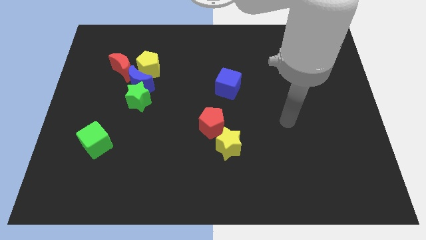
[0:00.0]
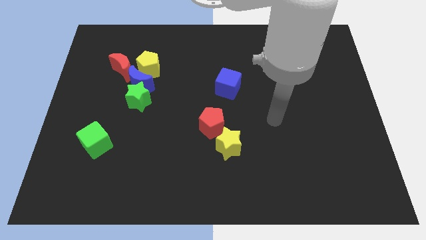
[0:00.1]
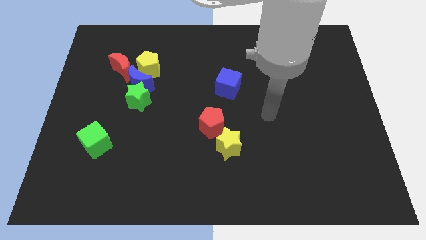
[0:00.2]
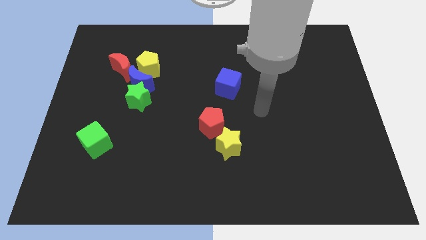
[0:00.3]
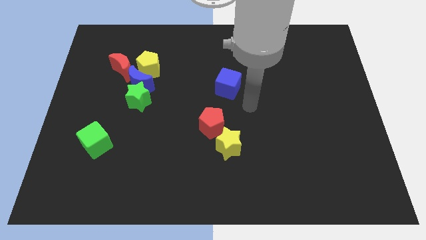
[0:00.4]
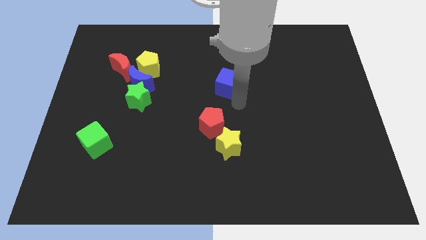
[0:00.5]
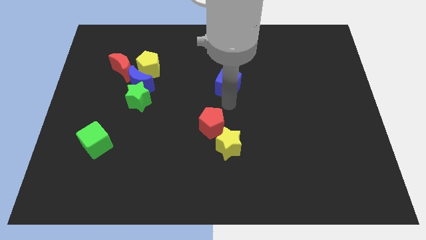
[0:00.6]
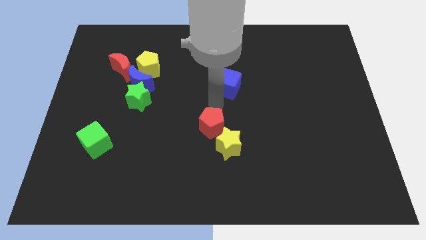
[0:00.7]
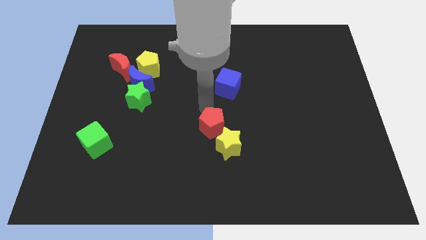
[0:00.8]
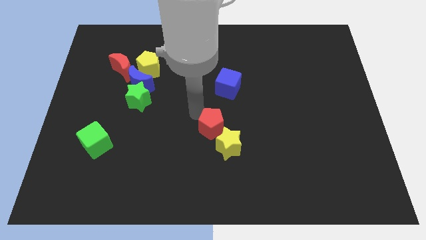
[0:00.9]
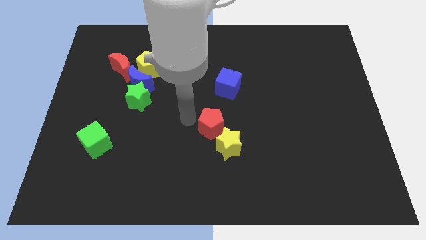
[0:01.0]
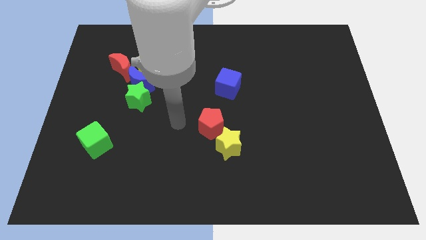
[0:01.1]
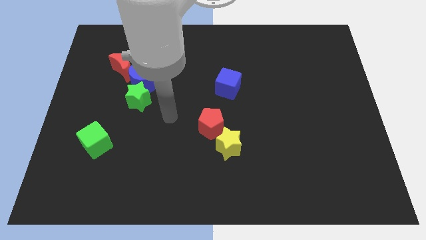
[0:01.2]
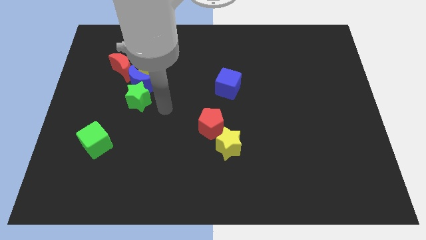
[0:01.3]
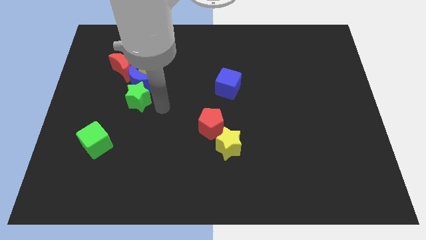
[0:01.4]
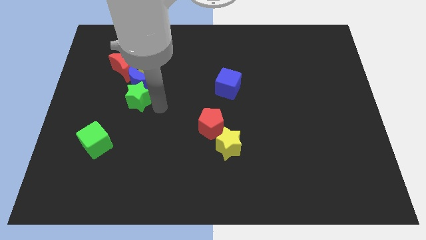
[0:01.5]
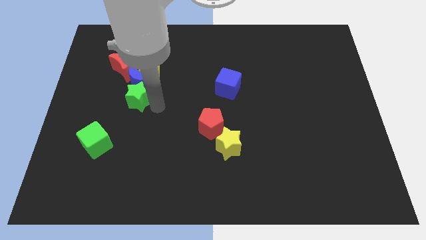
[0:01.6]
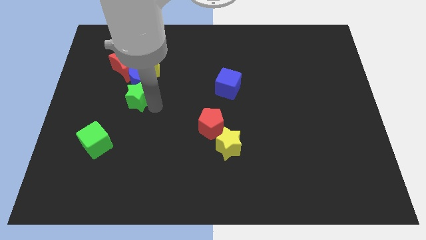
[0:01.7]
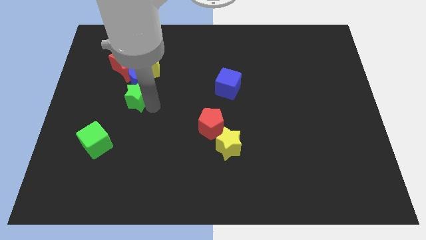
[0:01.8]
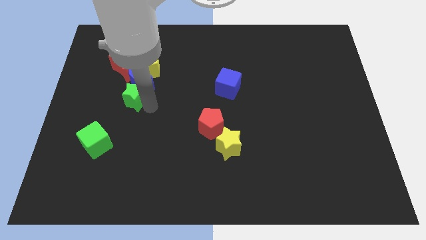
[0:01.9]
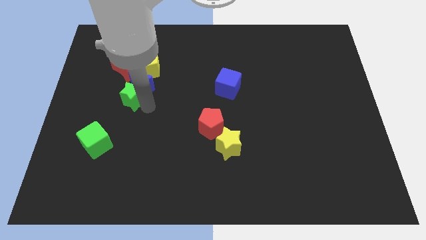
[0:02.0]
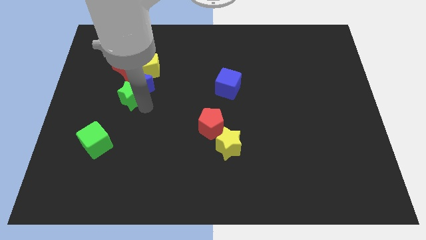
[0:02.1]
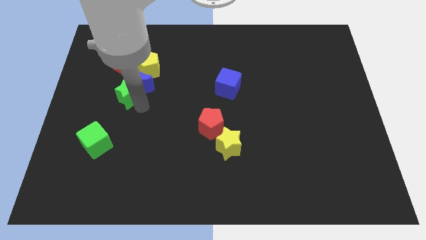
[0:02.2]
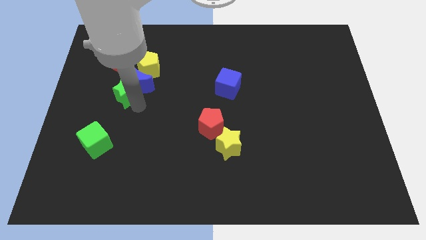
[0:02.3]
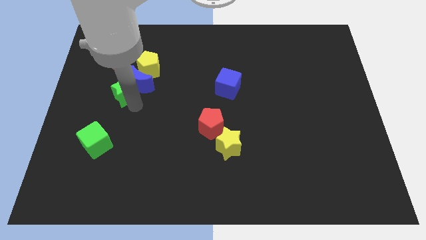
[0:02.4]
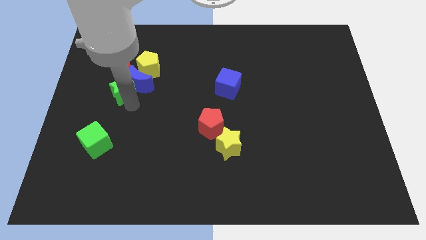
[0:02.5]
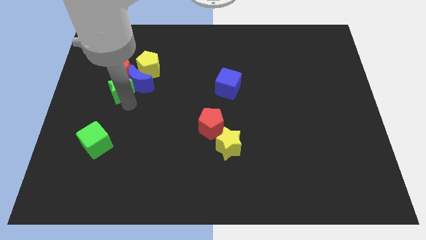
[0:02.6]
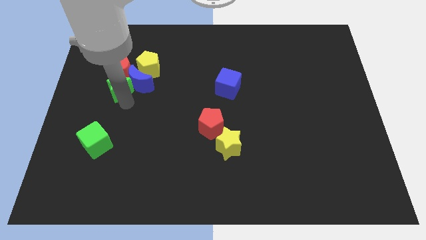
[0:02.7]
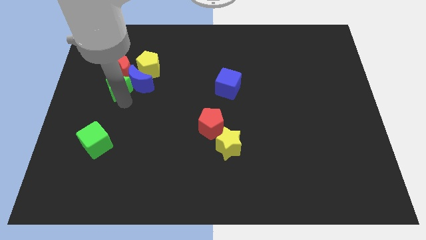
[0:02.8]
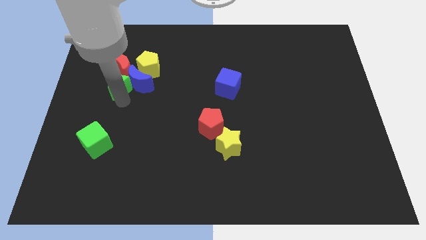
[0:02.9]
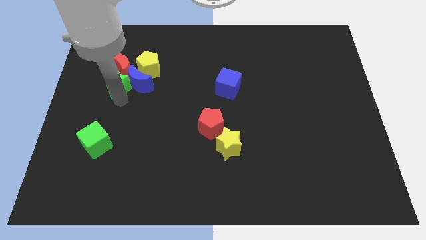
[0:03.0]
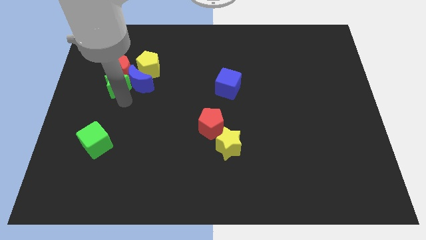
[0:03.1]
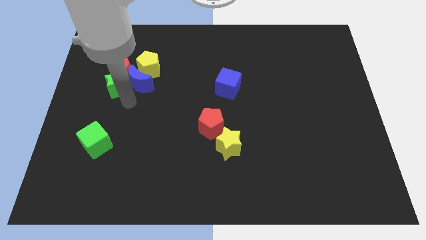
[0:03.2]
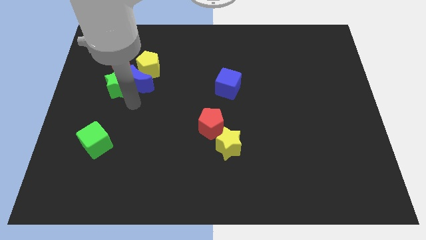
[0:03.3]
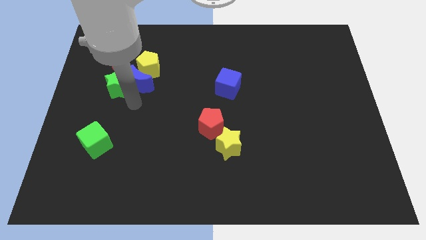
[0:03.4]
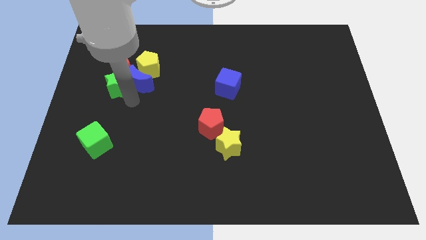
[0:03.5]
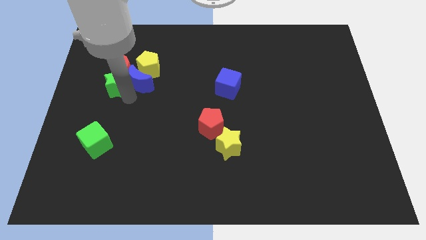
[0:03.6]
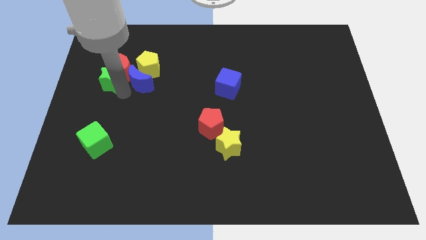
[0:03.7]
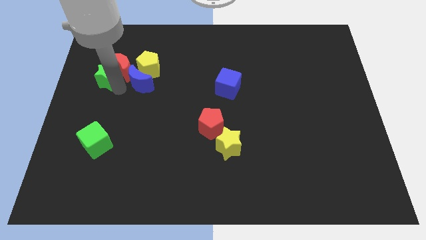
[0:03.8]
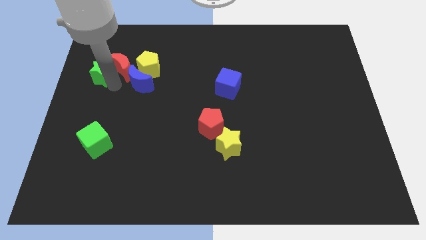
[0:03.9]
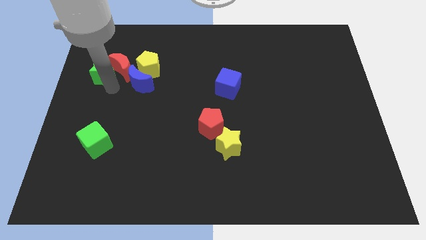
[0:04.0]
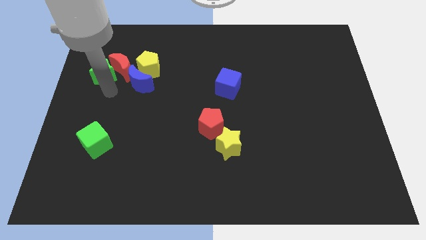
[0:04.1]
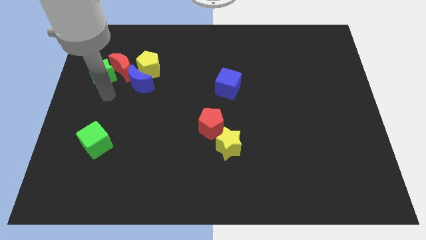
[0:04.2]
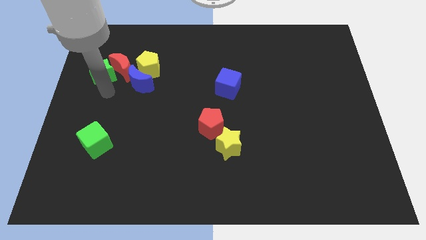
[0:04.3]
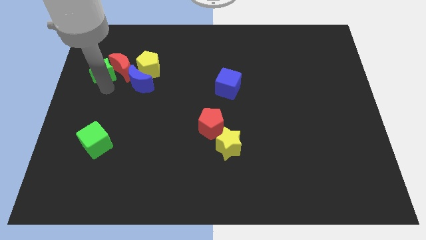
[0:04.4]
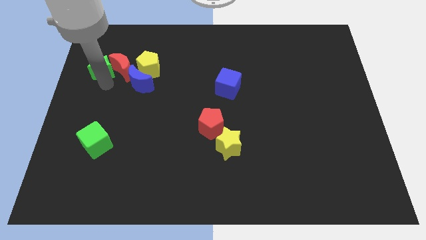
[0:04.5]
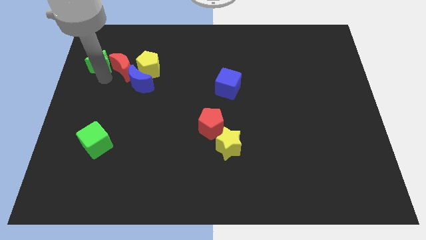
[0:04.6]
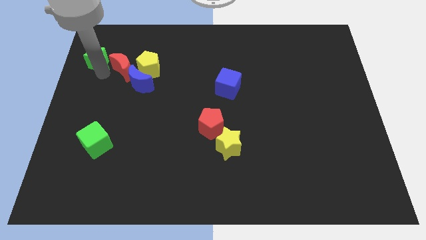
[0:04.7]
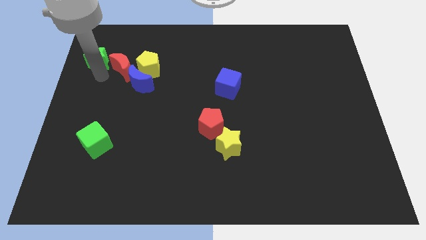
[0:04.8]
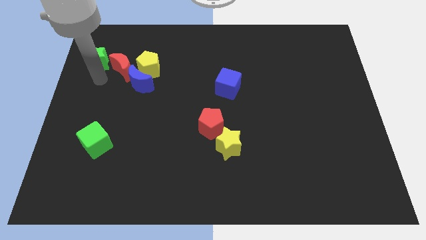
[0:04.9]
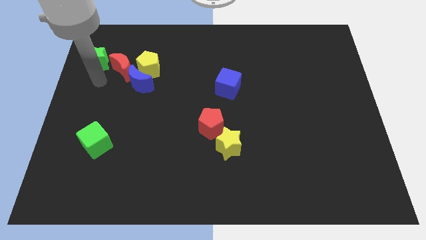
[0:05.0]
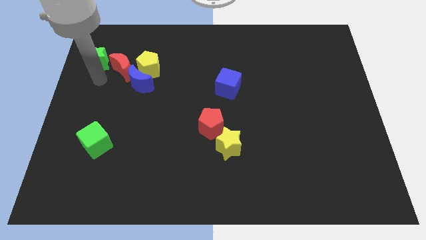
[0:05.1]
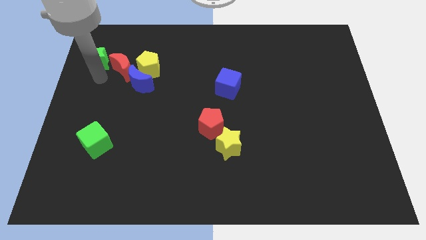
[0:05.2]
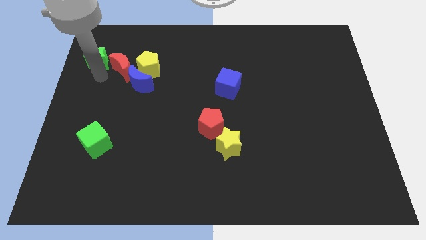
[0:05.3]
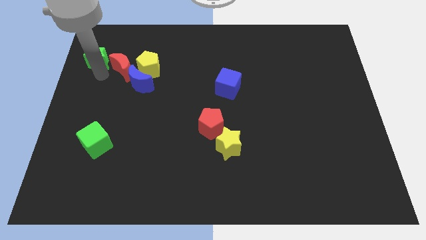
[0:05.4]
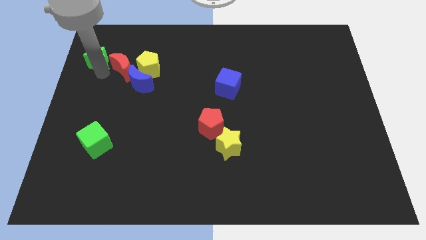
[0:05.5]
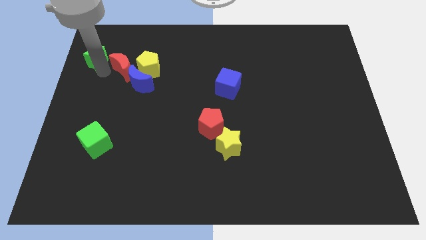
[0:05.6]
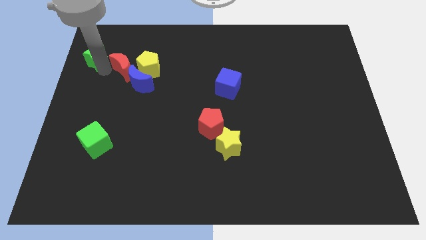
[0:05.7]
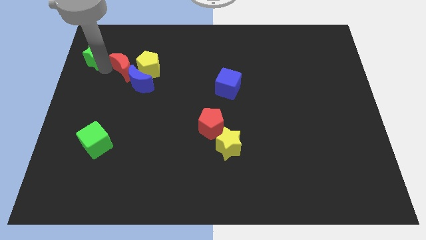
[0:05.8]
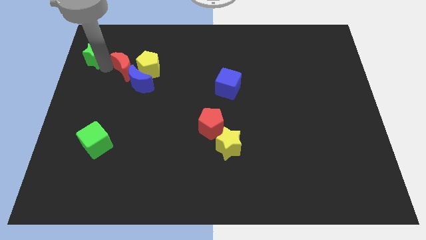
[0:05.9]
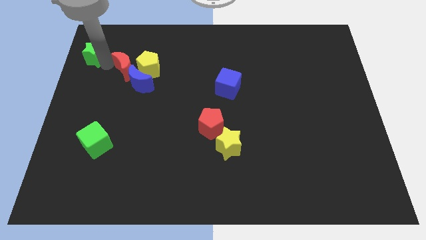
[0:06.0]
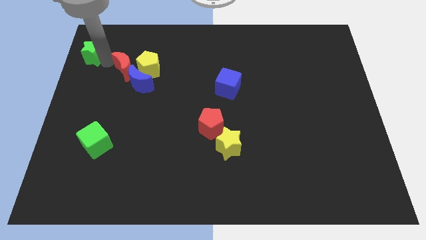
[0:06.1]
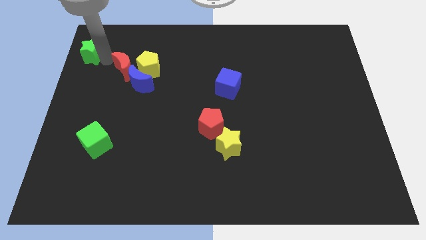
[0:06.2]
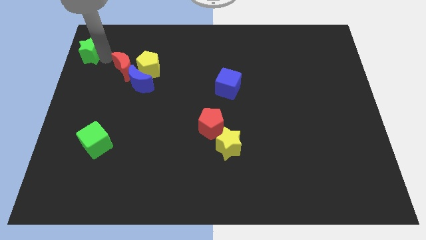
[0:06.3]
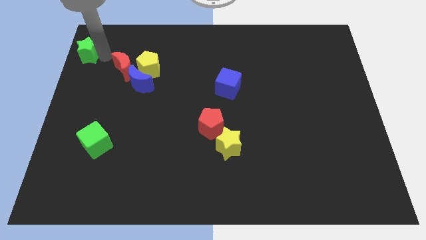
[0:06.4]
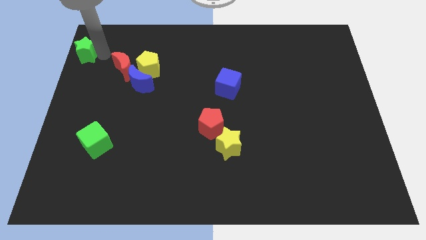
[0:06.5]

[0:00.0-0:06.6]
push the green star to the top left of the board

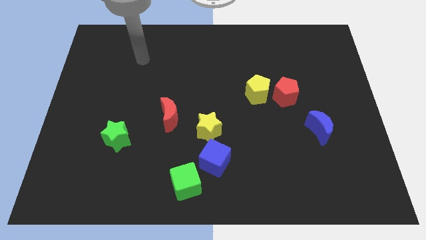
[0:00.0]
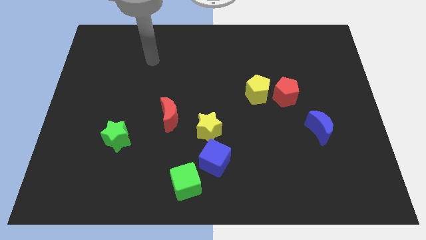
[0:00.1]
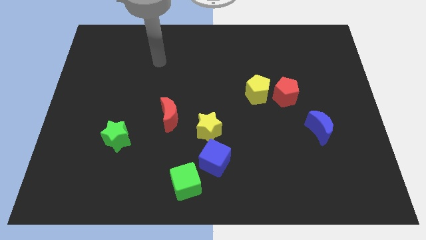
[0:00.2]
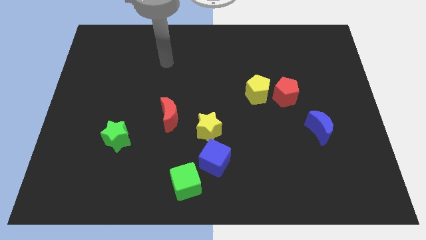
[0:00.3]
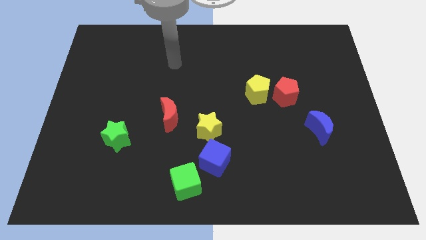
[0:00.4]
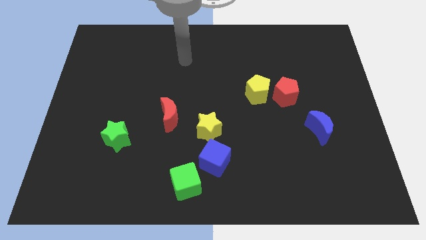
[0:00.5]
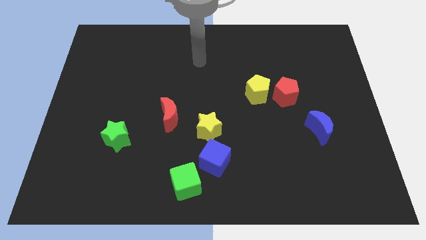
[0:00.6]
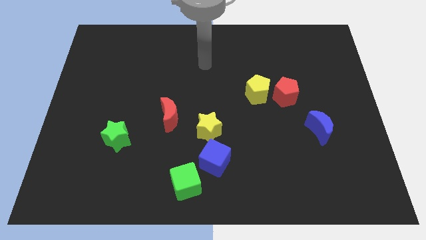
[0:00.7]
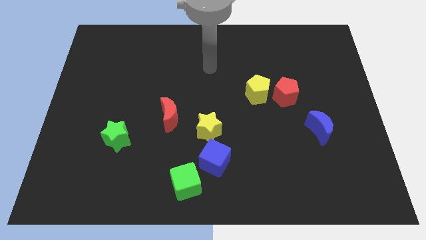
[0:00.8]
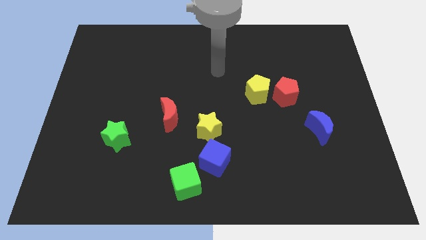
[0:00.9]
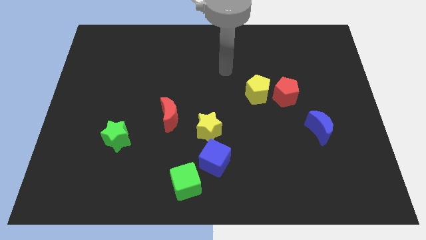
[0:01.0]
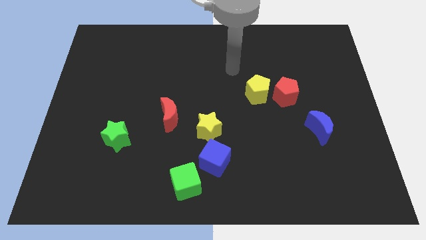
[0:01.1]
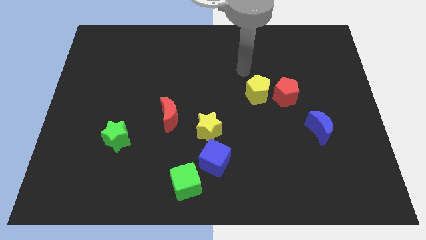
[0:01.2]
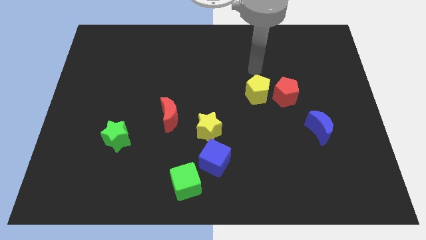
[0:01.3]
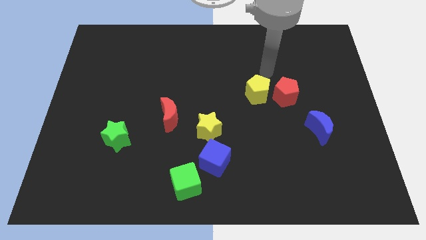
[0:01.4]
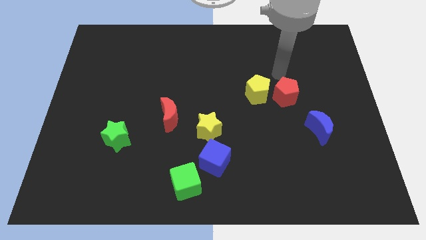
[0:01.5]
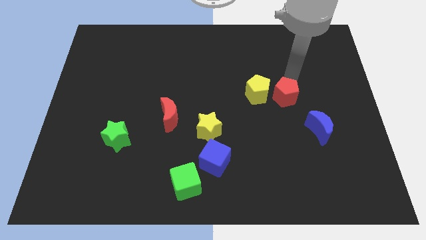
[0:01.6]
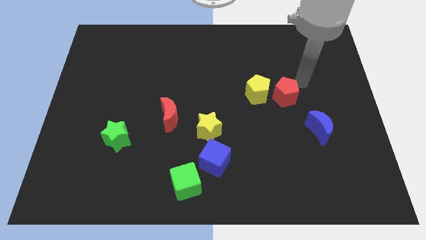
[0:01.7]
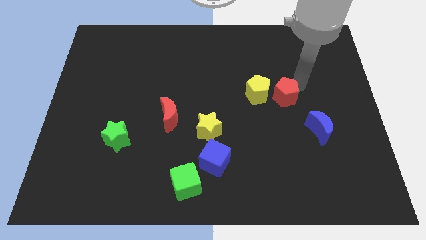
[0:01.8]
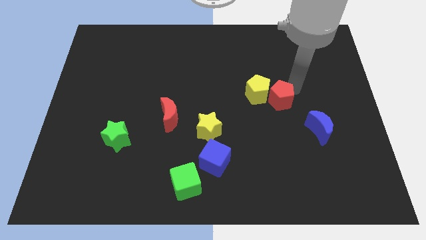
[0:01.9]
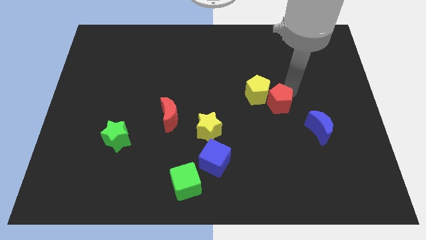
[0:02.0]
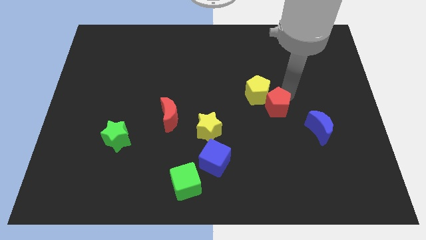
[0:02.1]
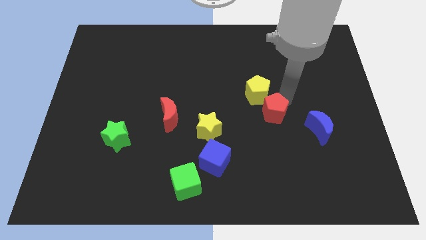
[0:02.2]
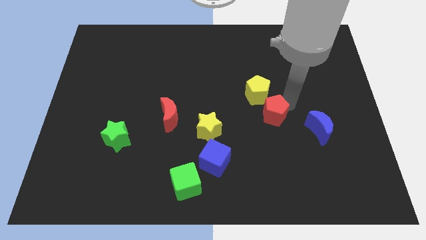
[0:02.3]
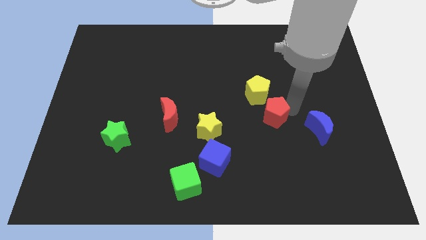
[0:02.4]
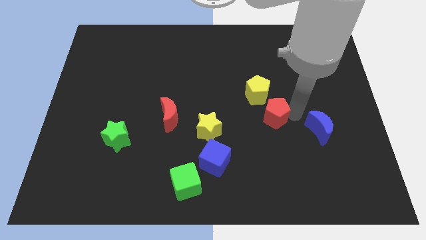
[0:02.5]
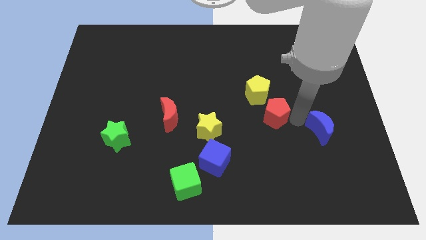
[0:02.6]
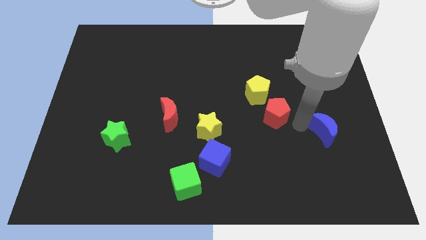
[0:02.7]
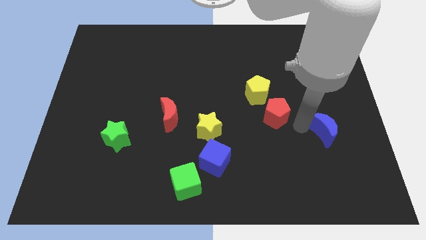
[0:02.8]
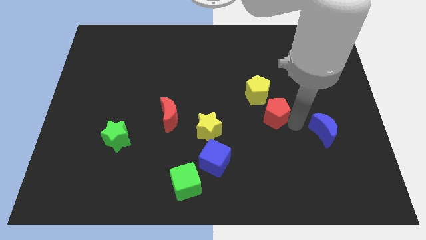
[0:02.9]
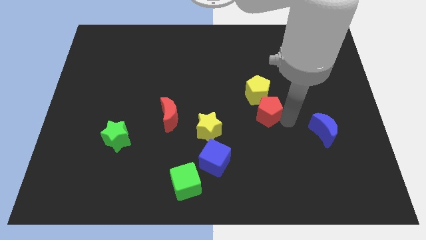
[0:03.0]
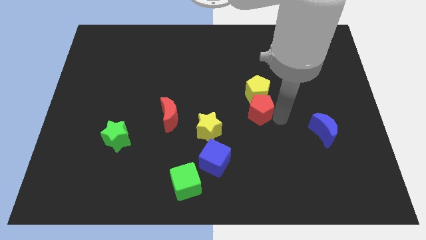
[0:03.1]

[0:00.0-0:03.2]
move the red pentagon to the middle
